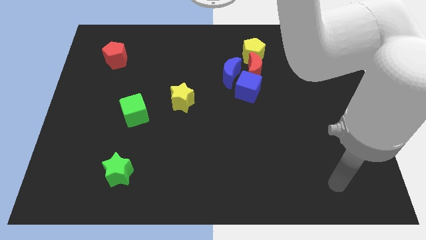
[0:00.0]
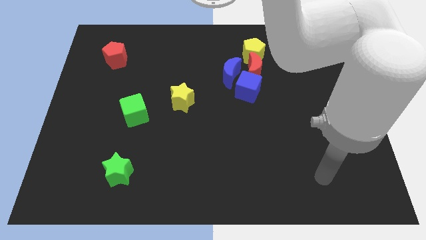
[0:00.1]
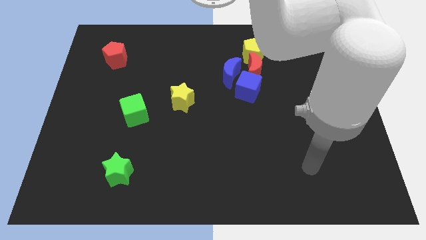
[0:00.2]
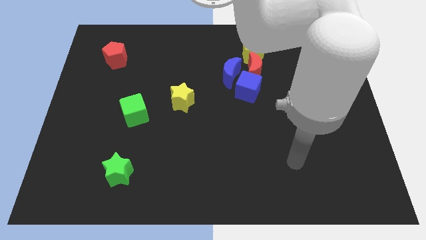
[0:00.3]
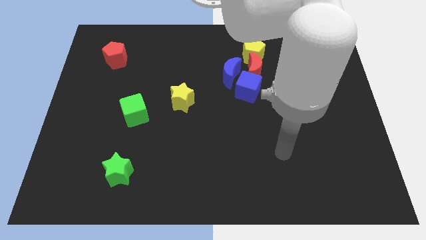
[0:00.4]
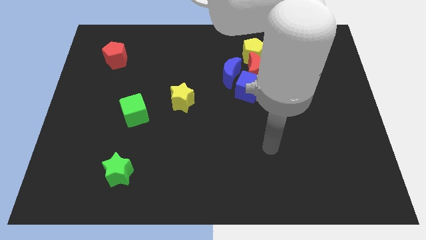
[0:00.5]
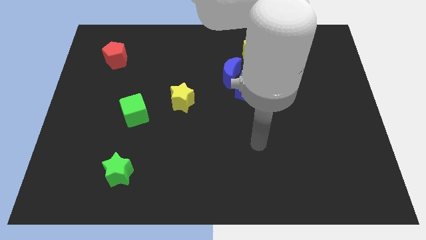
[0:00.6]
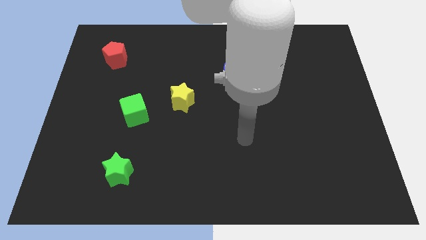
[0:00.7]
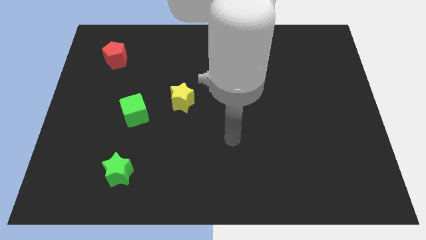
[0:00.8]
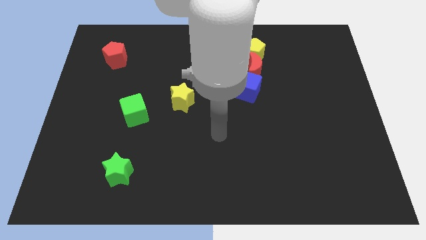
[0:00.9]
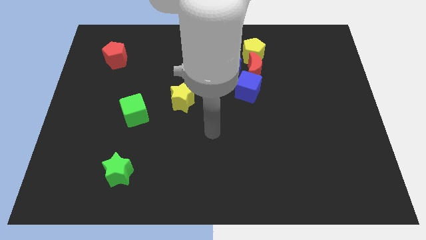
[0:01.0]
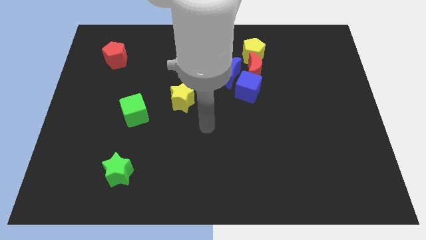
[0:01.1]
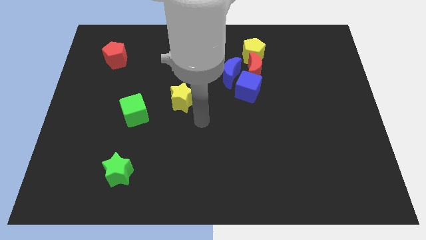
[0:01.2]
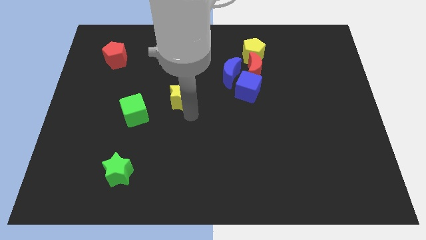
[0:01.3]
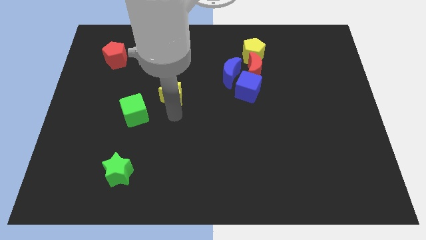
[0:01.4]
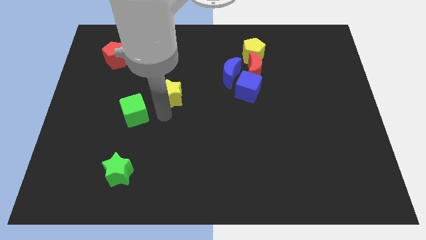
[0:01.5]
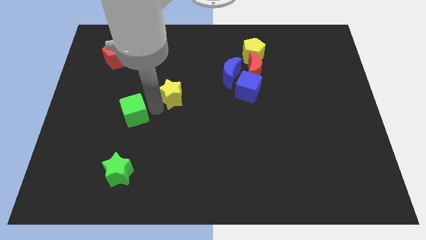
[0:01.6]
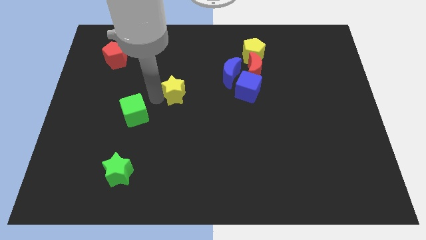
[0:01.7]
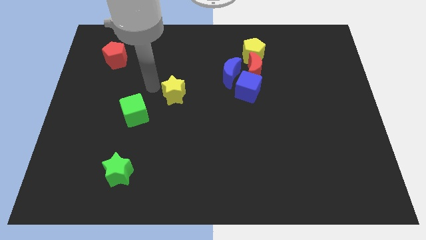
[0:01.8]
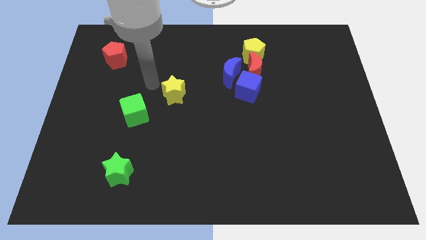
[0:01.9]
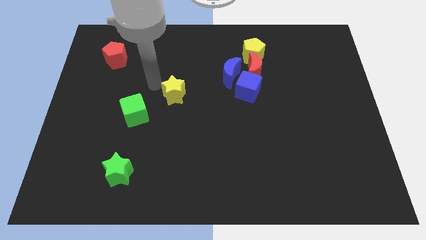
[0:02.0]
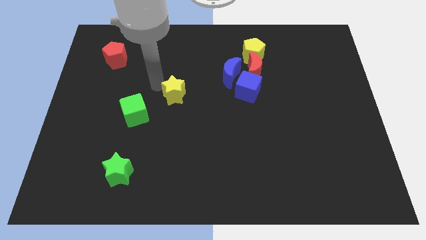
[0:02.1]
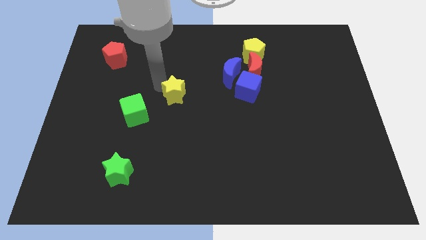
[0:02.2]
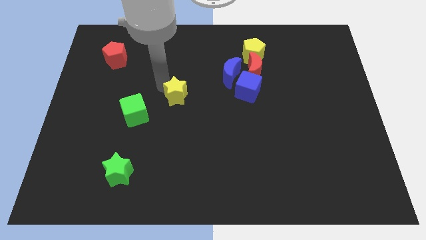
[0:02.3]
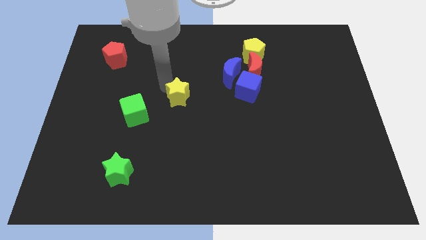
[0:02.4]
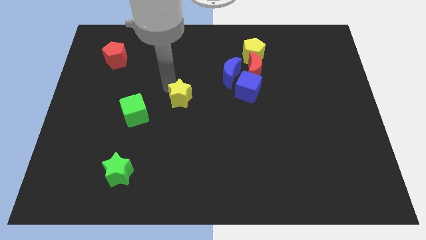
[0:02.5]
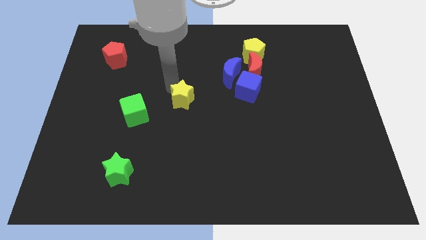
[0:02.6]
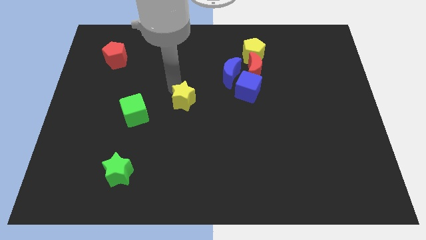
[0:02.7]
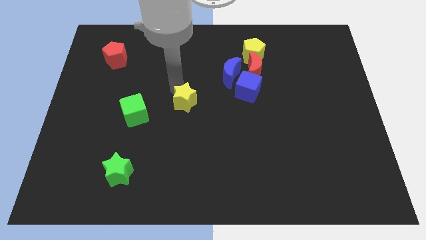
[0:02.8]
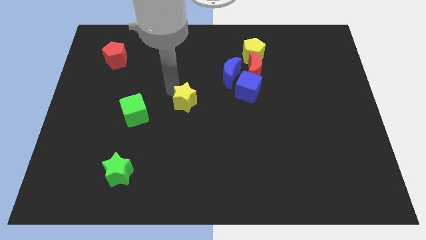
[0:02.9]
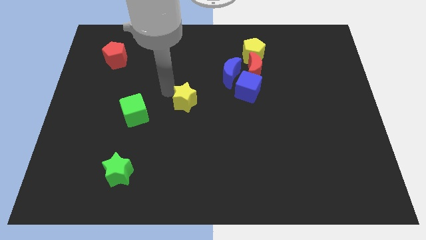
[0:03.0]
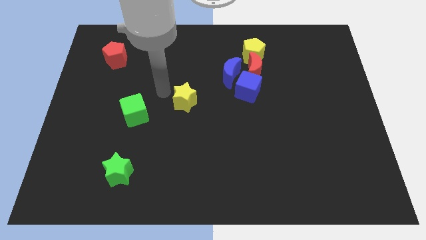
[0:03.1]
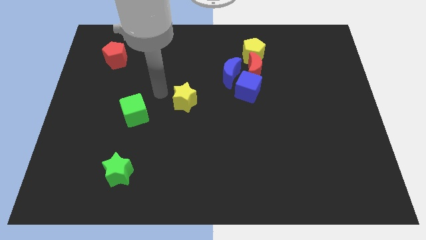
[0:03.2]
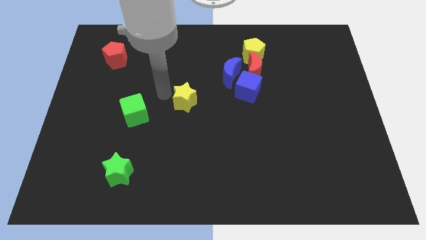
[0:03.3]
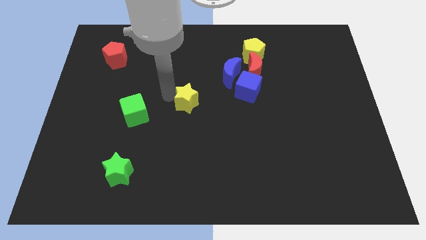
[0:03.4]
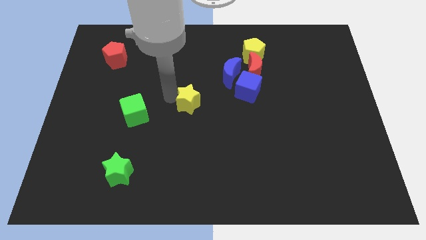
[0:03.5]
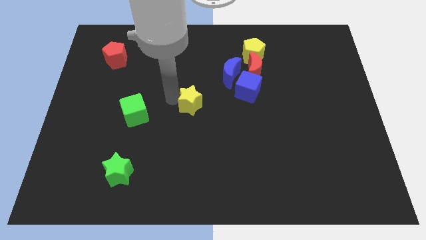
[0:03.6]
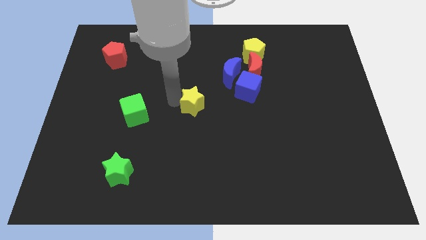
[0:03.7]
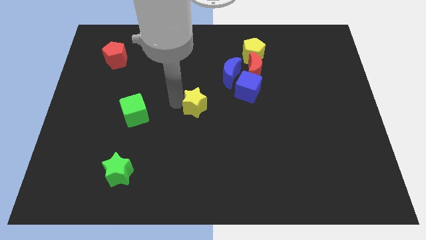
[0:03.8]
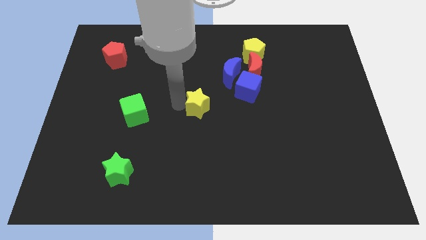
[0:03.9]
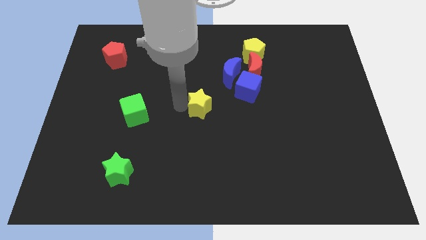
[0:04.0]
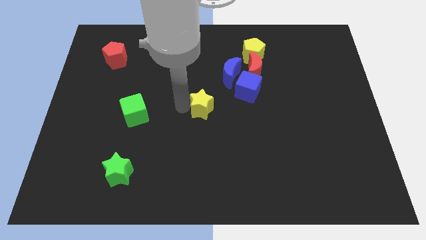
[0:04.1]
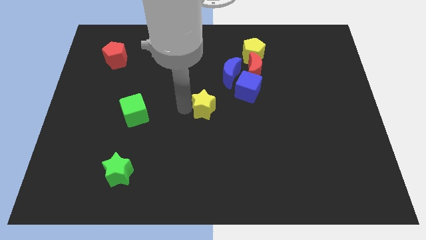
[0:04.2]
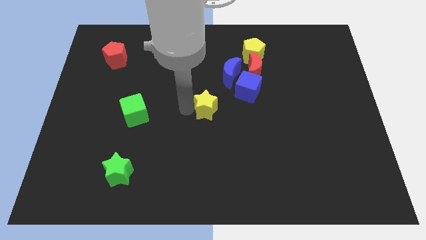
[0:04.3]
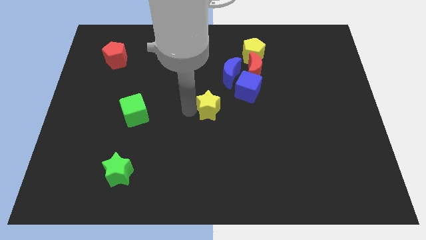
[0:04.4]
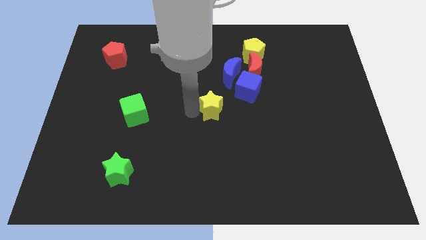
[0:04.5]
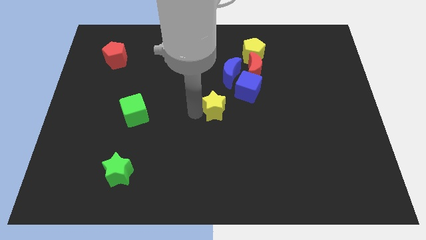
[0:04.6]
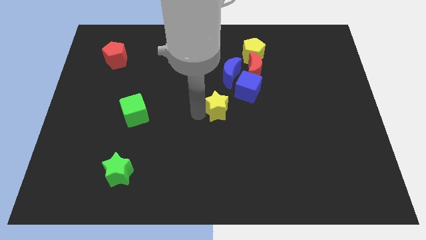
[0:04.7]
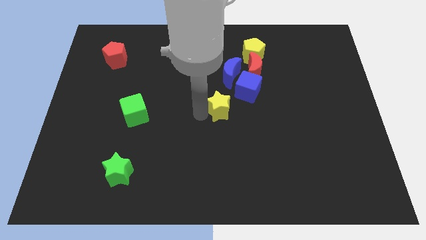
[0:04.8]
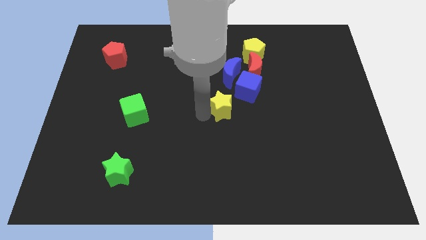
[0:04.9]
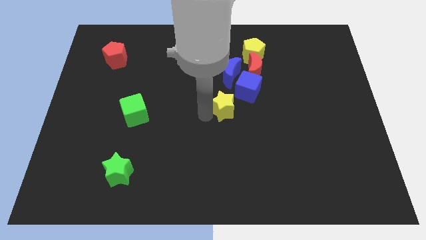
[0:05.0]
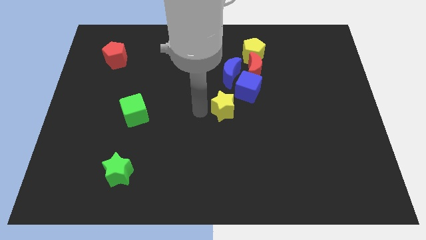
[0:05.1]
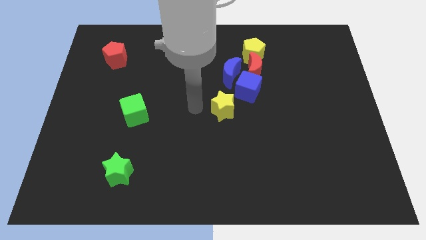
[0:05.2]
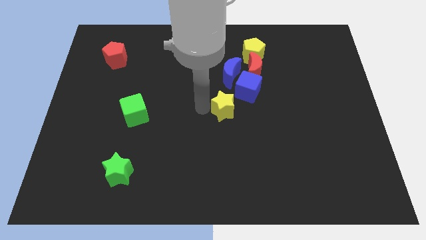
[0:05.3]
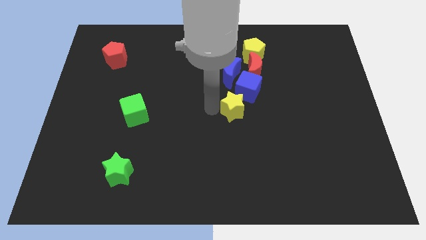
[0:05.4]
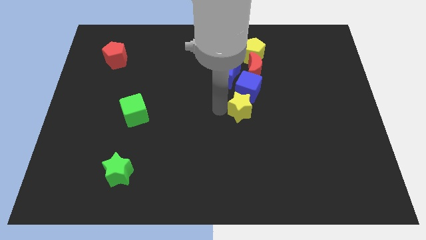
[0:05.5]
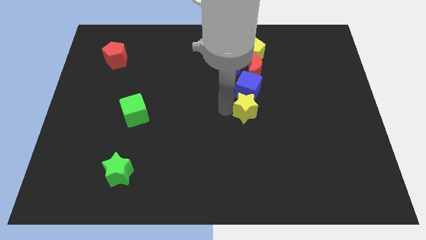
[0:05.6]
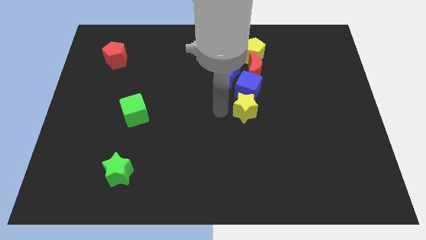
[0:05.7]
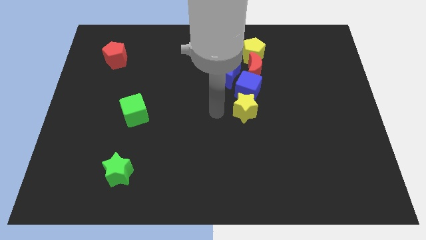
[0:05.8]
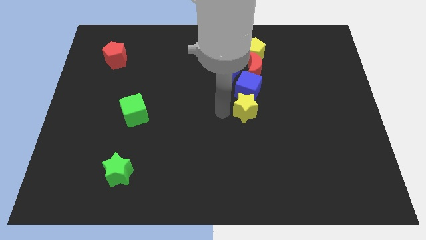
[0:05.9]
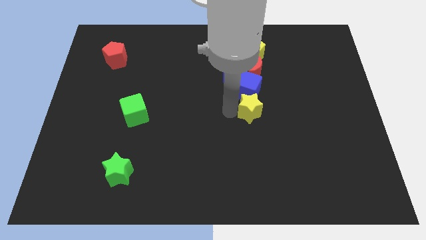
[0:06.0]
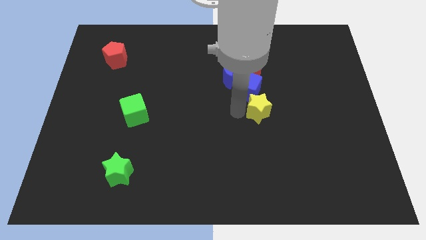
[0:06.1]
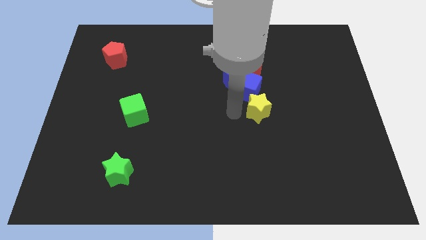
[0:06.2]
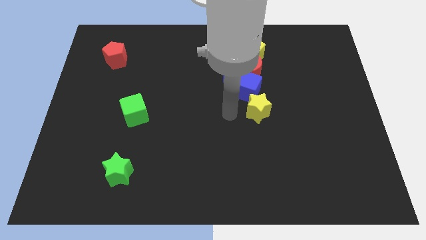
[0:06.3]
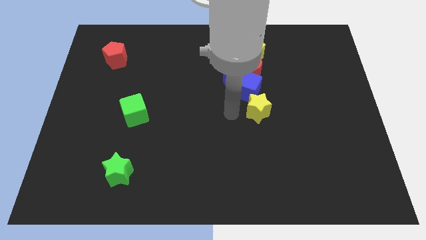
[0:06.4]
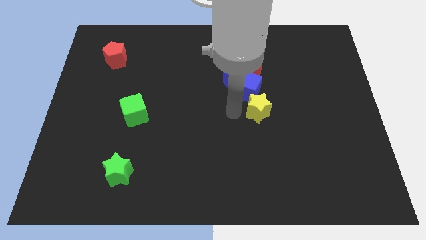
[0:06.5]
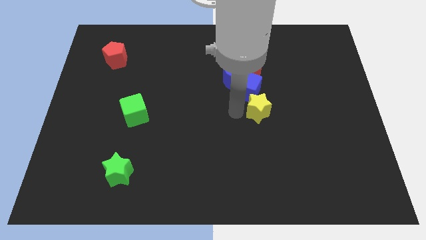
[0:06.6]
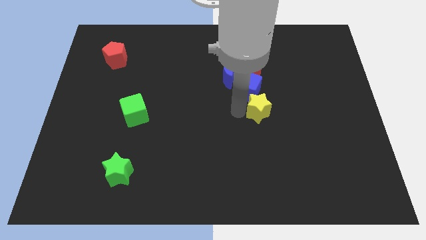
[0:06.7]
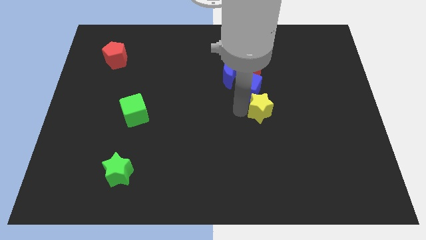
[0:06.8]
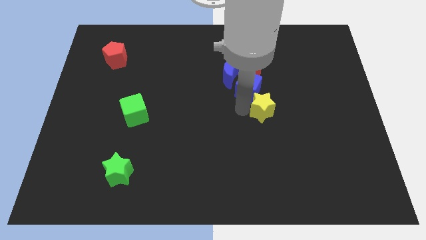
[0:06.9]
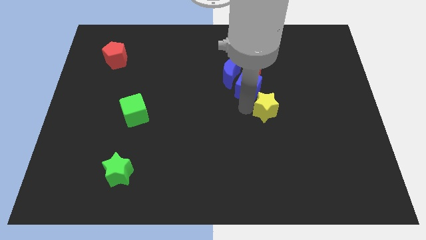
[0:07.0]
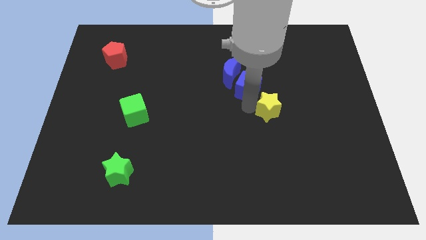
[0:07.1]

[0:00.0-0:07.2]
slide the yellow star right

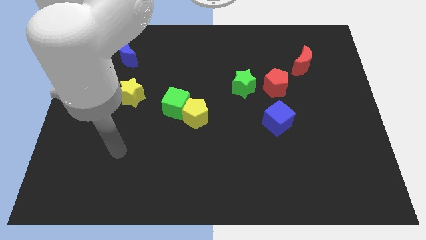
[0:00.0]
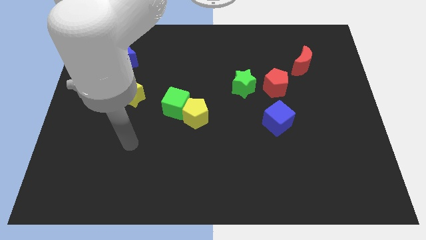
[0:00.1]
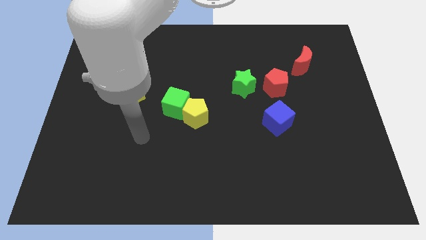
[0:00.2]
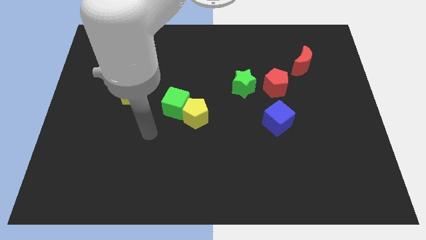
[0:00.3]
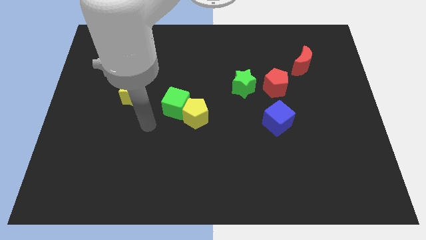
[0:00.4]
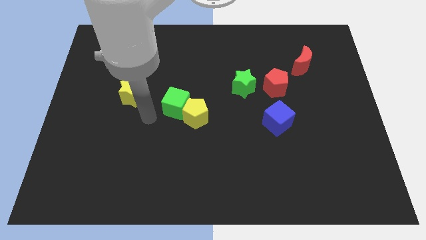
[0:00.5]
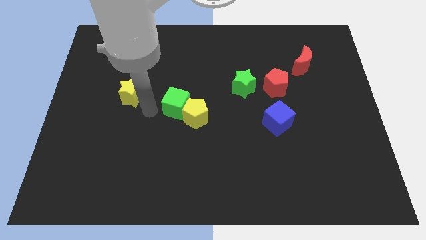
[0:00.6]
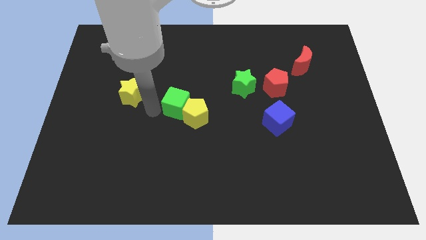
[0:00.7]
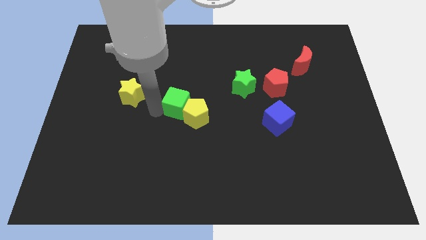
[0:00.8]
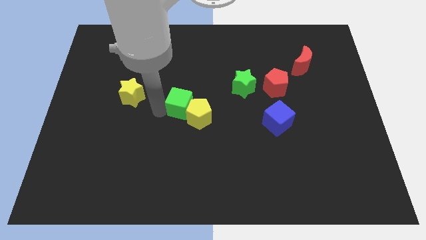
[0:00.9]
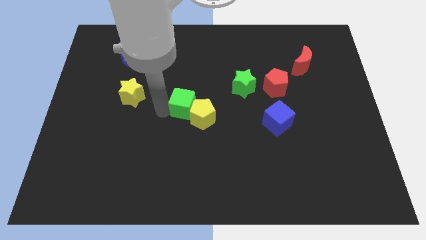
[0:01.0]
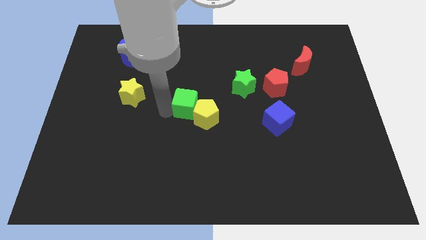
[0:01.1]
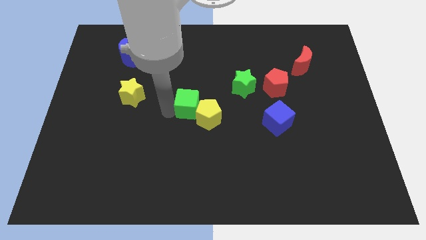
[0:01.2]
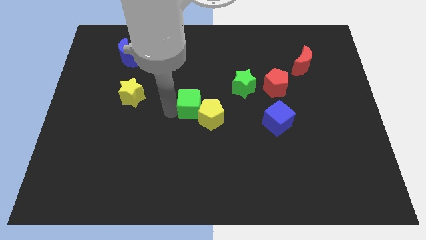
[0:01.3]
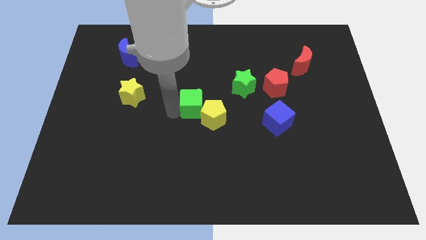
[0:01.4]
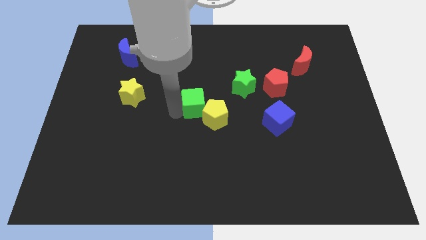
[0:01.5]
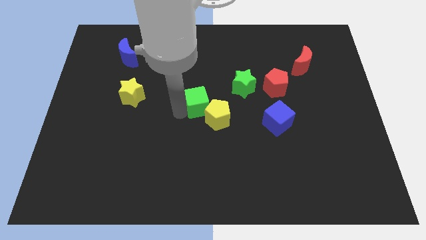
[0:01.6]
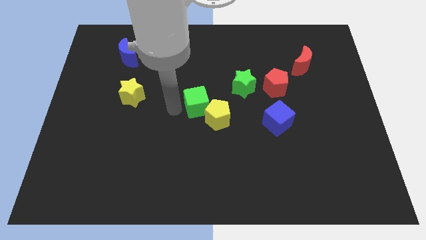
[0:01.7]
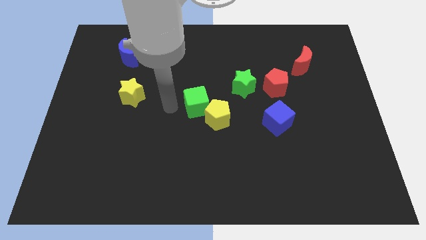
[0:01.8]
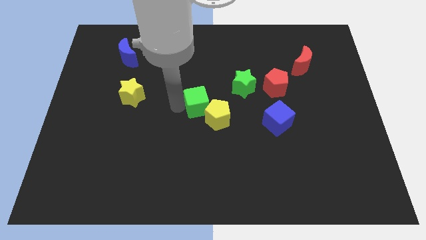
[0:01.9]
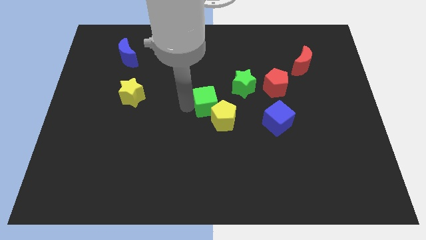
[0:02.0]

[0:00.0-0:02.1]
slightly push the green cube to the right
